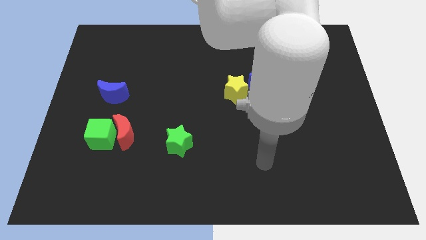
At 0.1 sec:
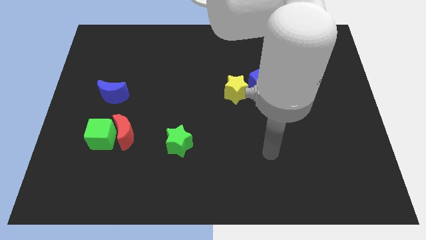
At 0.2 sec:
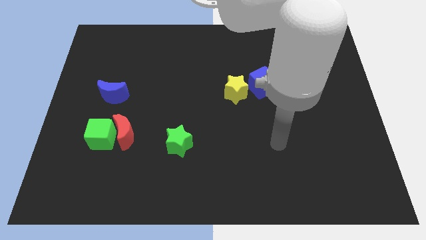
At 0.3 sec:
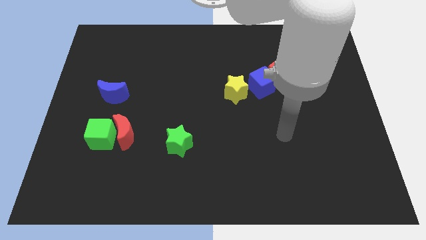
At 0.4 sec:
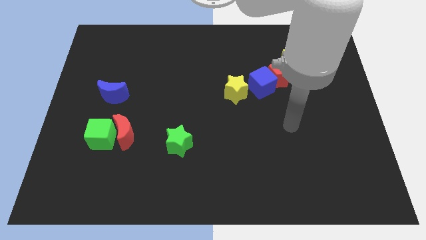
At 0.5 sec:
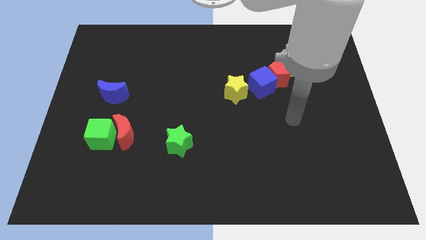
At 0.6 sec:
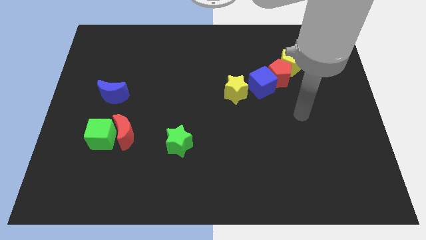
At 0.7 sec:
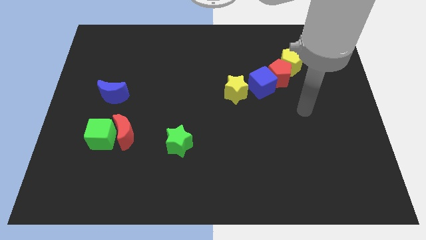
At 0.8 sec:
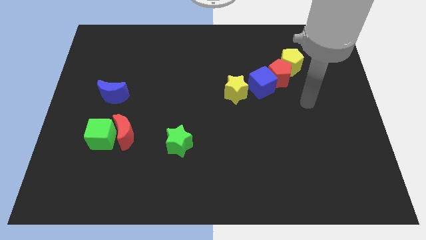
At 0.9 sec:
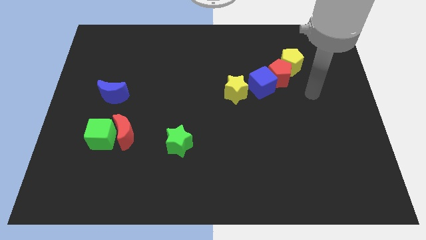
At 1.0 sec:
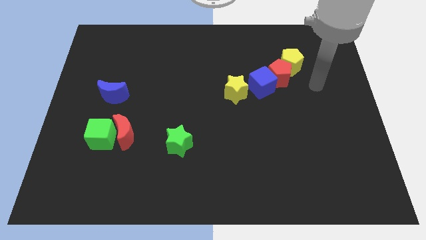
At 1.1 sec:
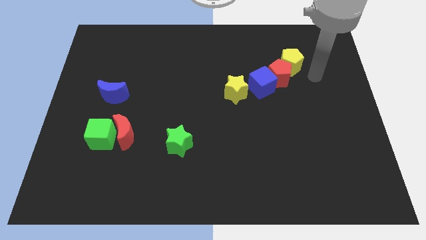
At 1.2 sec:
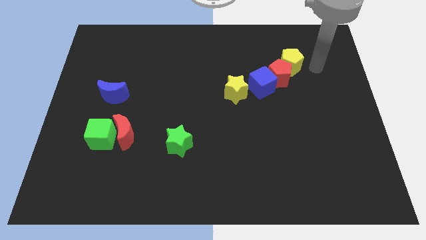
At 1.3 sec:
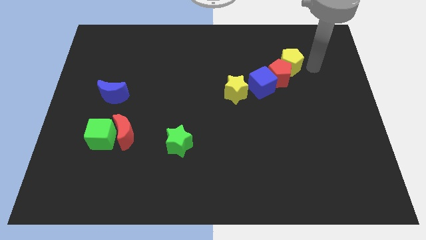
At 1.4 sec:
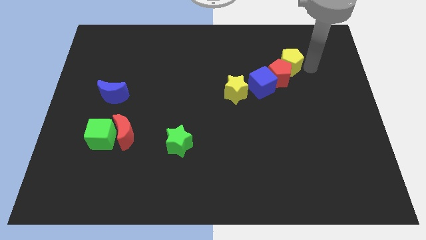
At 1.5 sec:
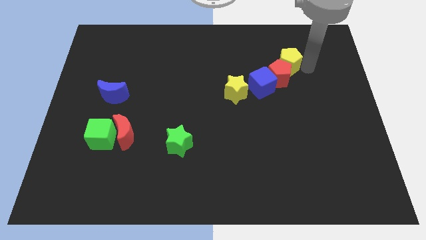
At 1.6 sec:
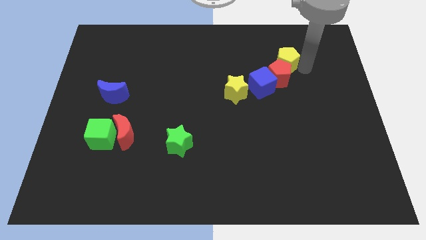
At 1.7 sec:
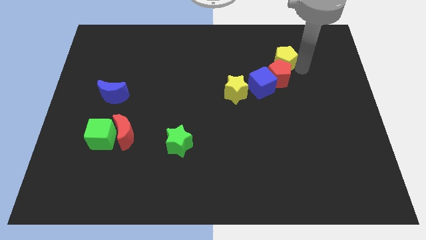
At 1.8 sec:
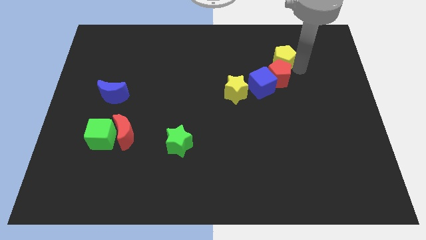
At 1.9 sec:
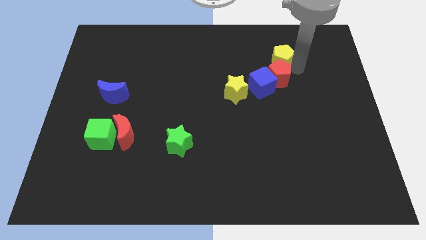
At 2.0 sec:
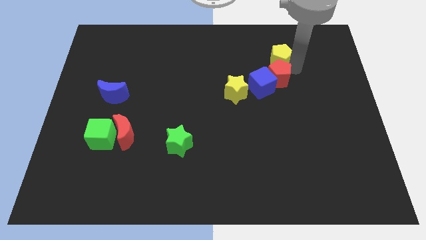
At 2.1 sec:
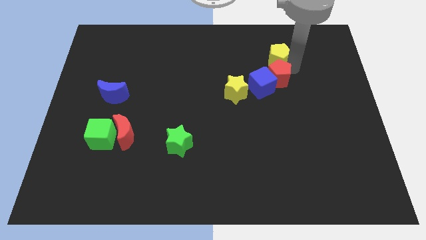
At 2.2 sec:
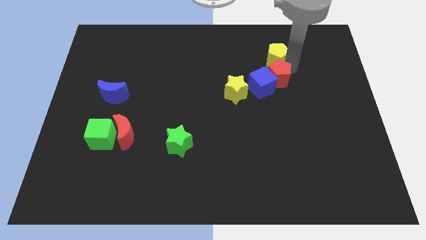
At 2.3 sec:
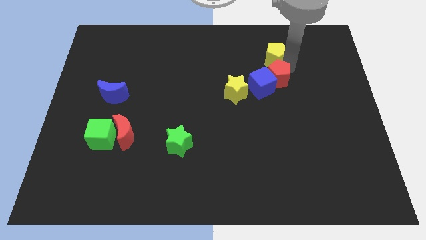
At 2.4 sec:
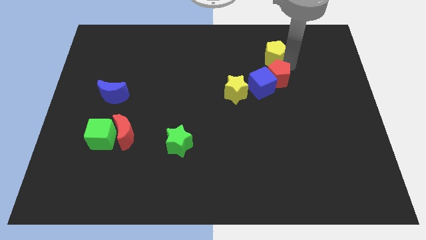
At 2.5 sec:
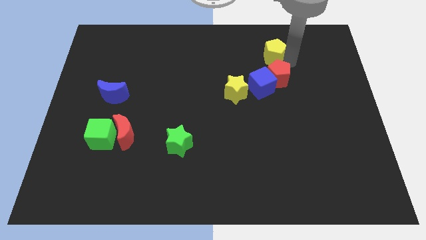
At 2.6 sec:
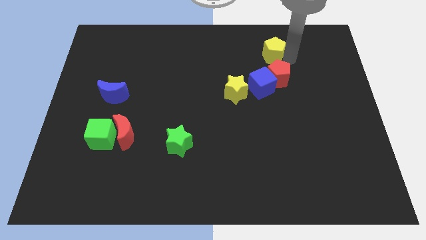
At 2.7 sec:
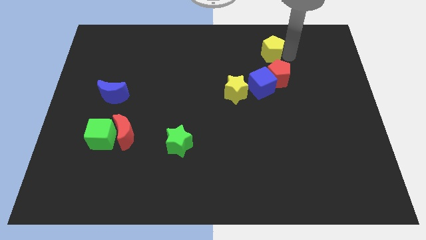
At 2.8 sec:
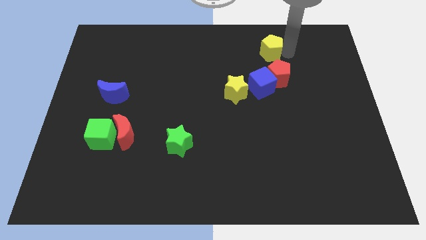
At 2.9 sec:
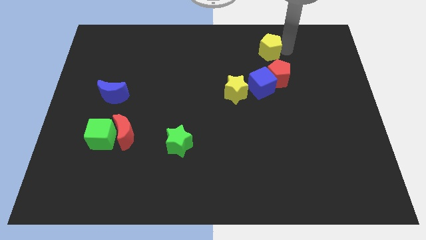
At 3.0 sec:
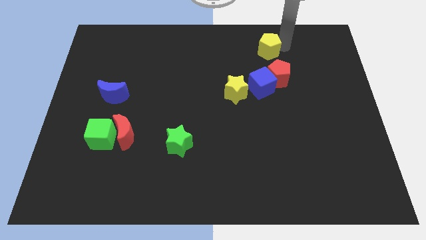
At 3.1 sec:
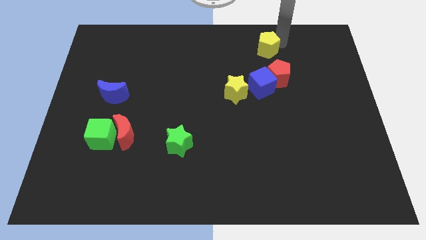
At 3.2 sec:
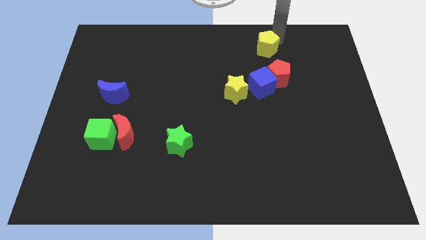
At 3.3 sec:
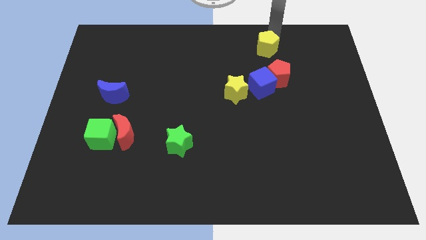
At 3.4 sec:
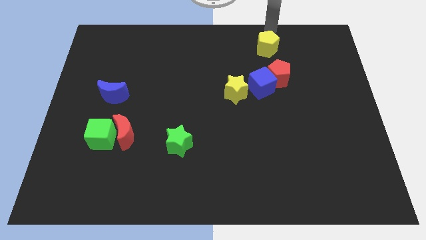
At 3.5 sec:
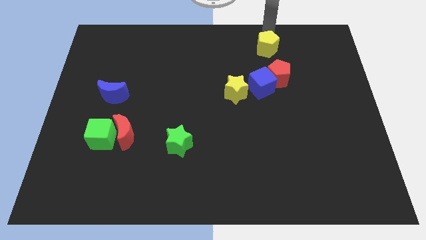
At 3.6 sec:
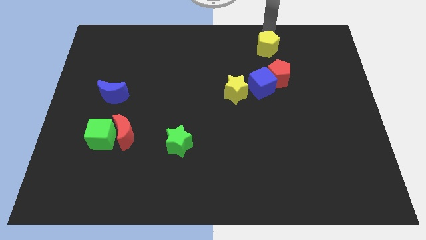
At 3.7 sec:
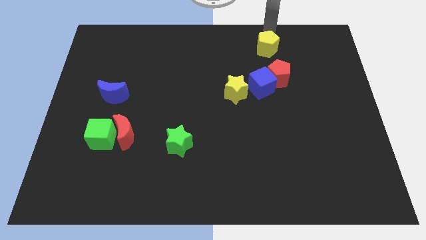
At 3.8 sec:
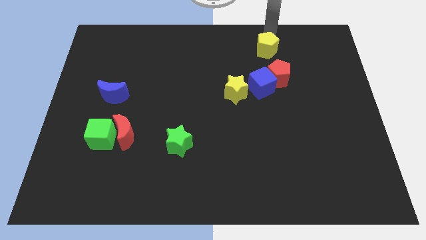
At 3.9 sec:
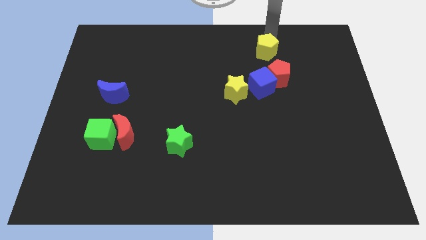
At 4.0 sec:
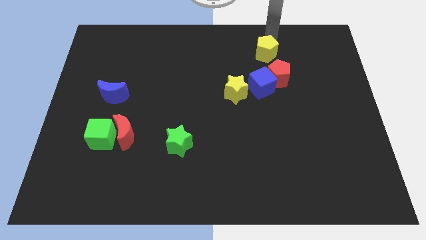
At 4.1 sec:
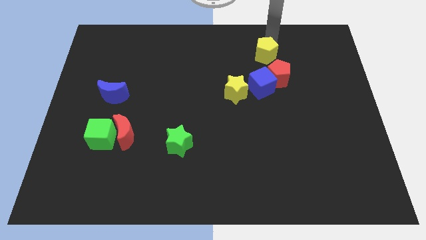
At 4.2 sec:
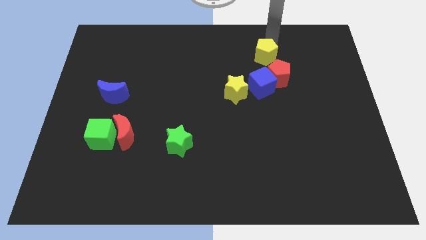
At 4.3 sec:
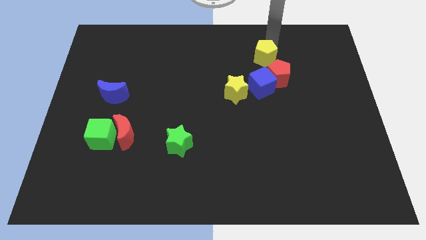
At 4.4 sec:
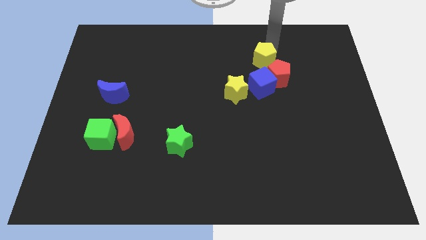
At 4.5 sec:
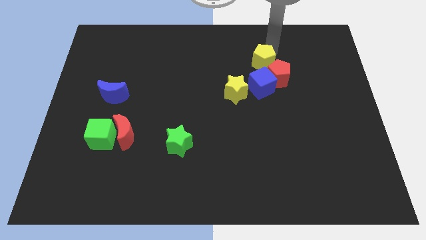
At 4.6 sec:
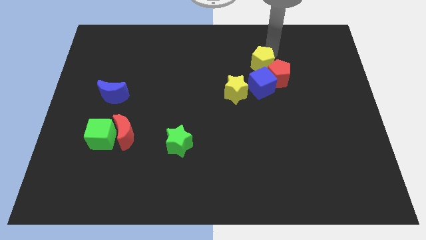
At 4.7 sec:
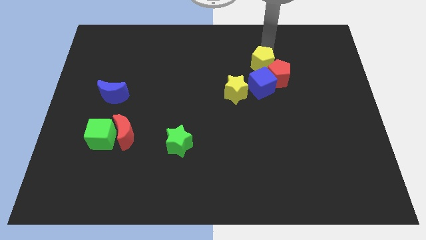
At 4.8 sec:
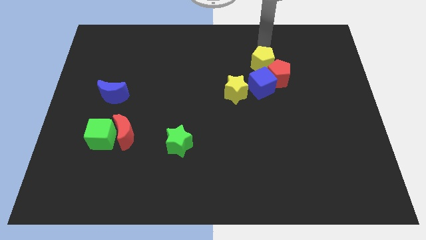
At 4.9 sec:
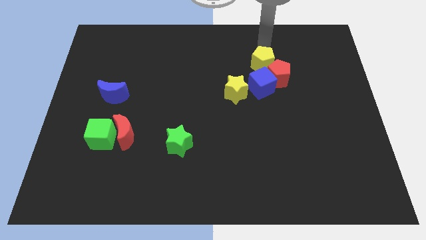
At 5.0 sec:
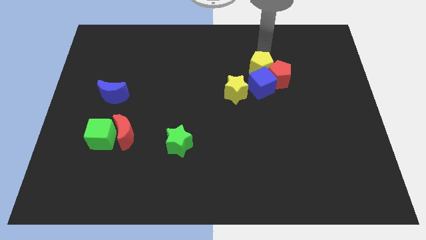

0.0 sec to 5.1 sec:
push the yellow pentagon next to the blue cube

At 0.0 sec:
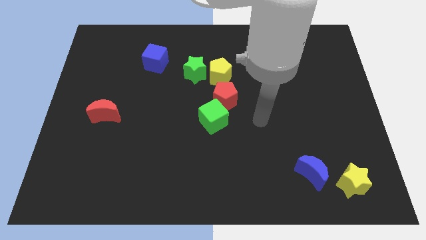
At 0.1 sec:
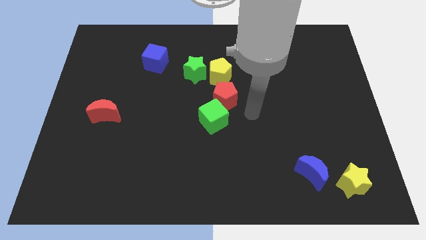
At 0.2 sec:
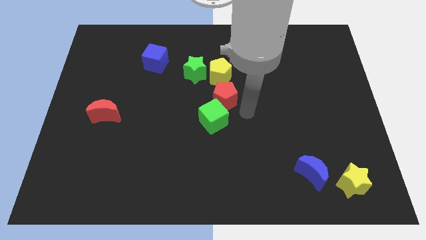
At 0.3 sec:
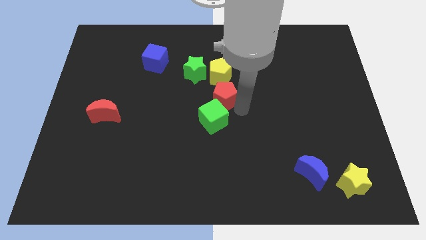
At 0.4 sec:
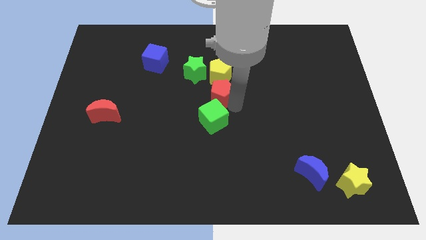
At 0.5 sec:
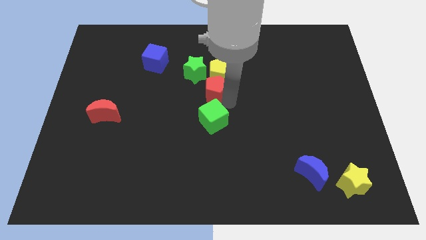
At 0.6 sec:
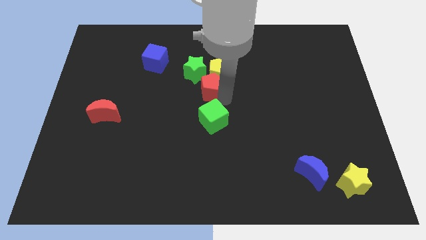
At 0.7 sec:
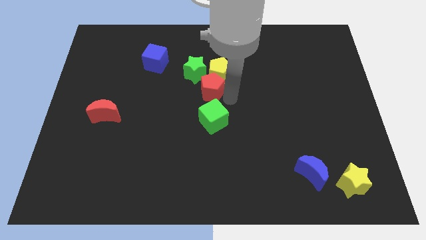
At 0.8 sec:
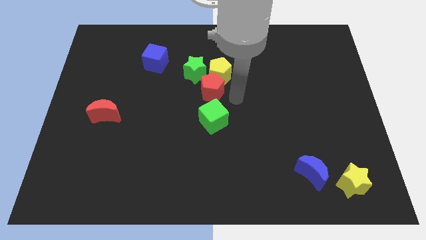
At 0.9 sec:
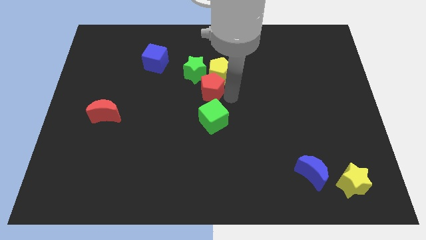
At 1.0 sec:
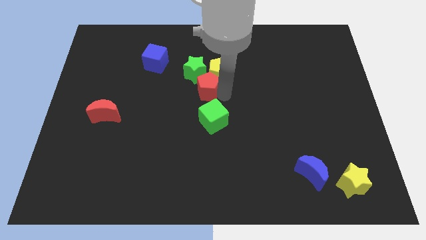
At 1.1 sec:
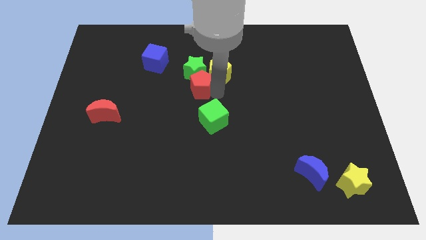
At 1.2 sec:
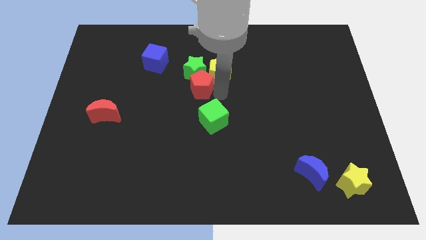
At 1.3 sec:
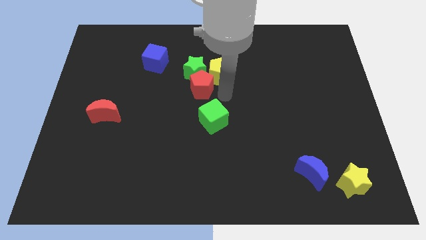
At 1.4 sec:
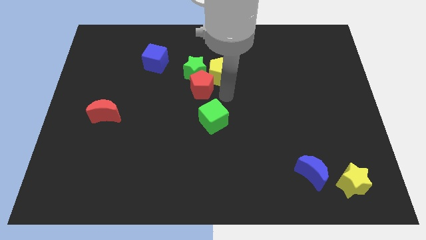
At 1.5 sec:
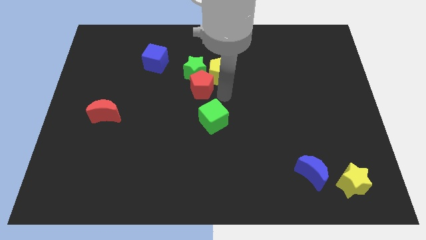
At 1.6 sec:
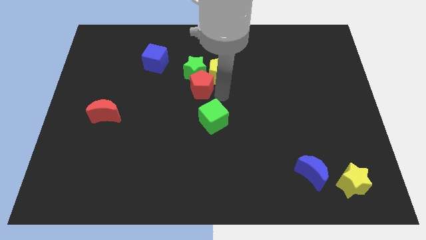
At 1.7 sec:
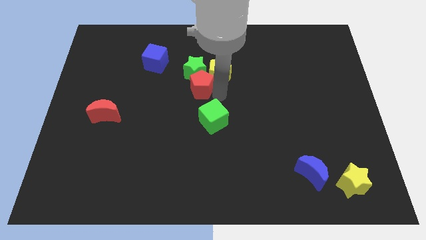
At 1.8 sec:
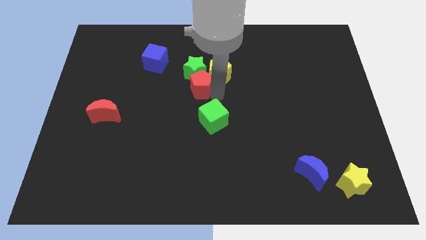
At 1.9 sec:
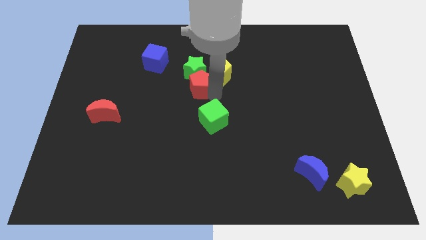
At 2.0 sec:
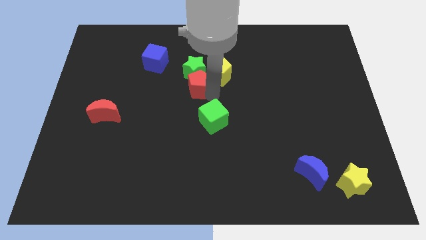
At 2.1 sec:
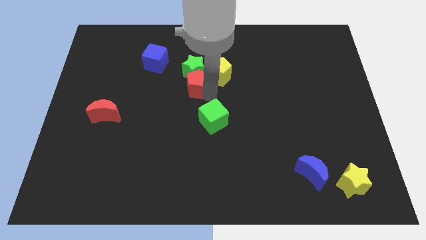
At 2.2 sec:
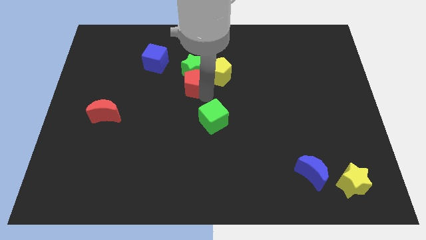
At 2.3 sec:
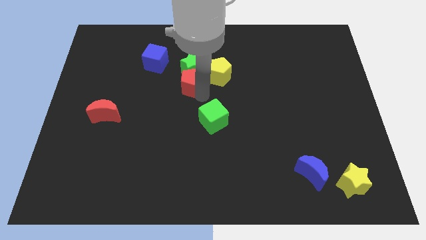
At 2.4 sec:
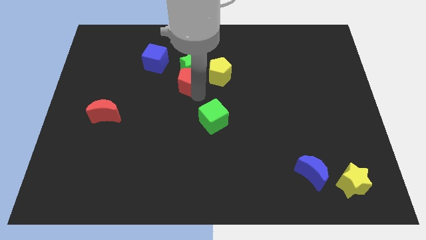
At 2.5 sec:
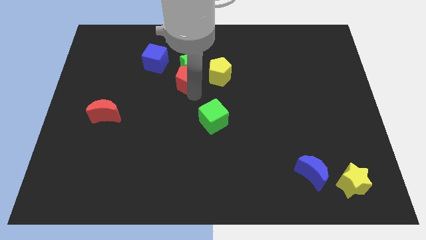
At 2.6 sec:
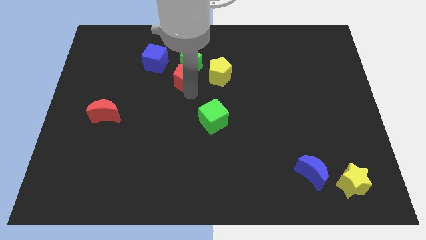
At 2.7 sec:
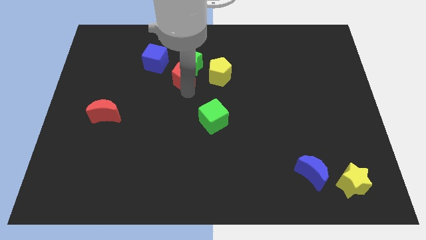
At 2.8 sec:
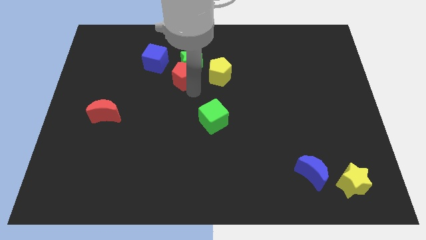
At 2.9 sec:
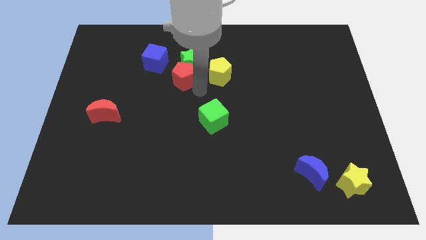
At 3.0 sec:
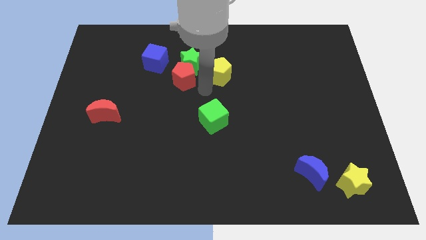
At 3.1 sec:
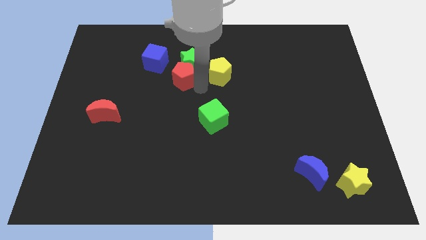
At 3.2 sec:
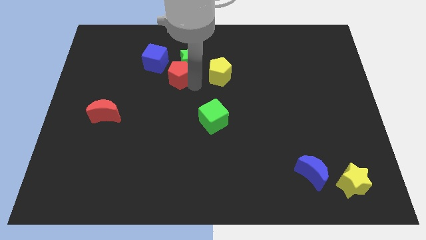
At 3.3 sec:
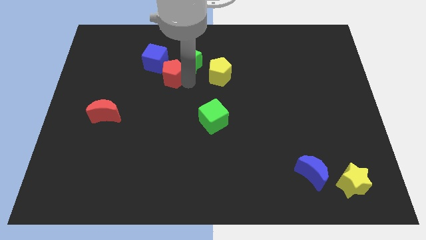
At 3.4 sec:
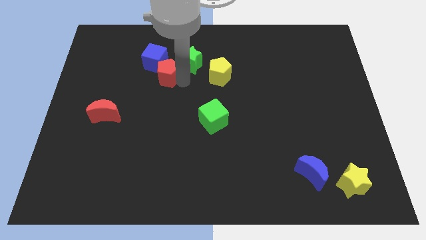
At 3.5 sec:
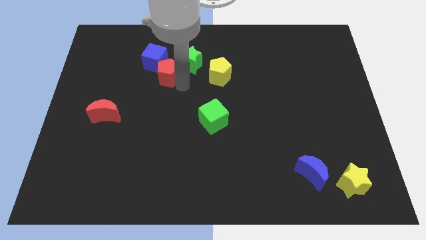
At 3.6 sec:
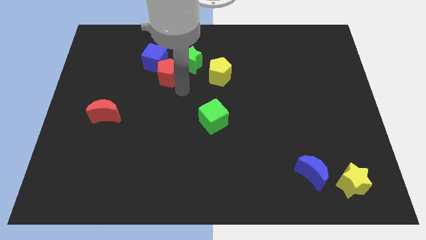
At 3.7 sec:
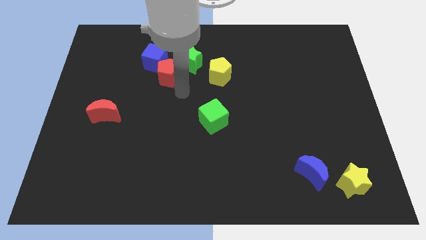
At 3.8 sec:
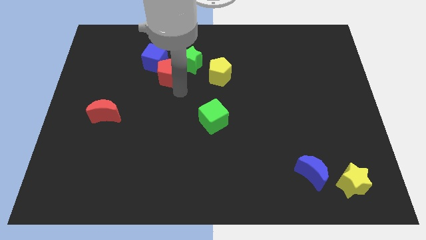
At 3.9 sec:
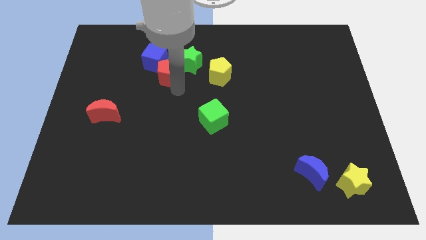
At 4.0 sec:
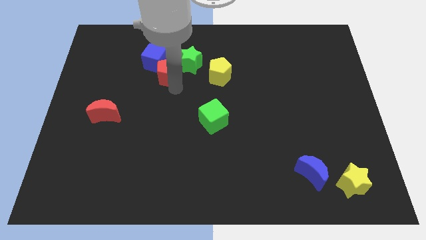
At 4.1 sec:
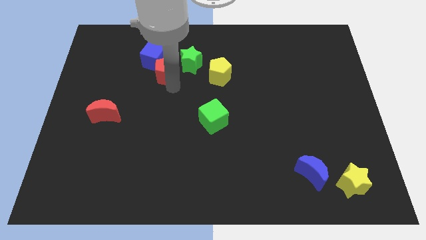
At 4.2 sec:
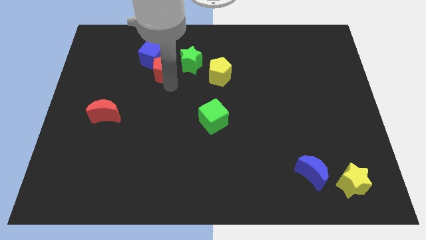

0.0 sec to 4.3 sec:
slide the red pentagon towards the blue cube
